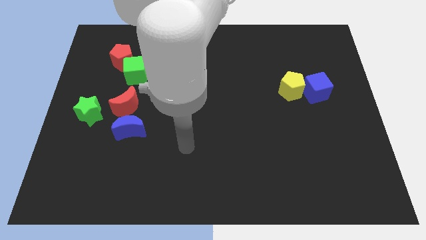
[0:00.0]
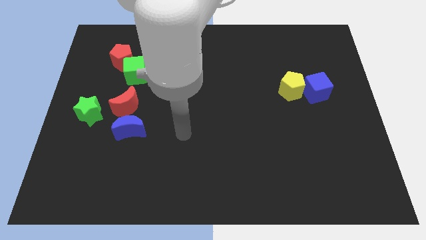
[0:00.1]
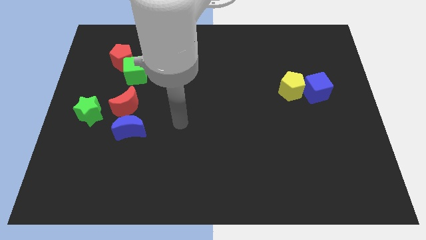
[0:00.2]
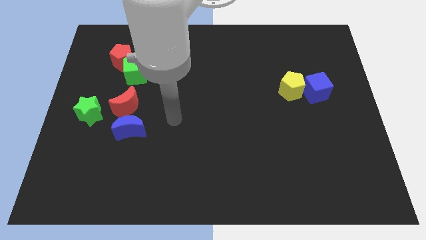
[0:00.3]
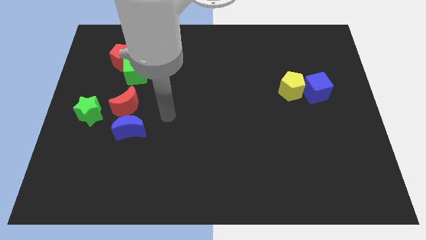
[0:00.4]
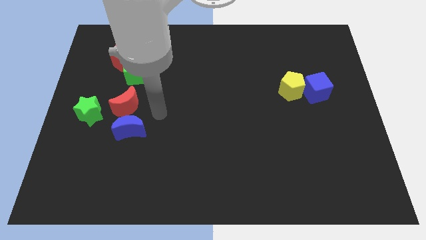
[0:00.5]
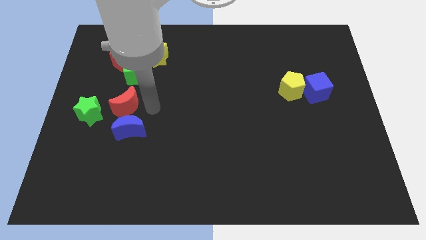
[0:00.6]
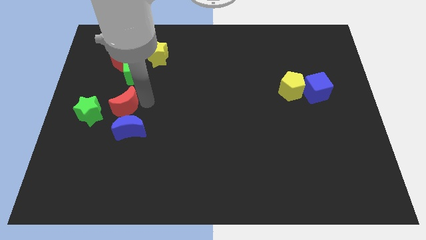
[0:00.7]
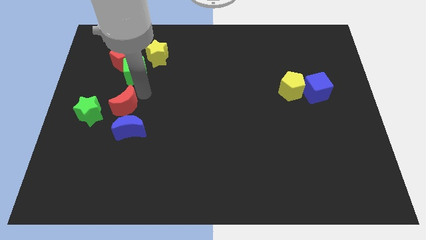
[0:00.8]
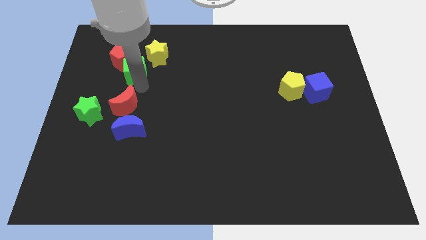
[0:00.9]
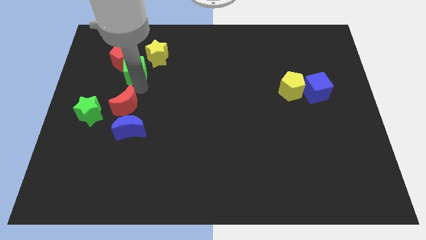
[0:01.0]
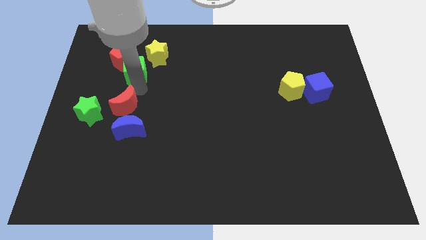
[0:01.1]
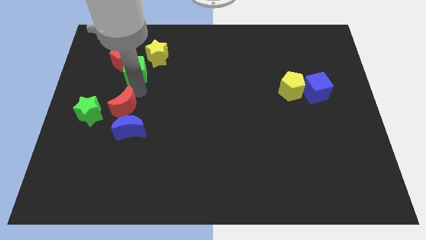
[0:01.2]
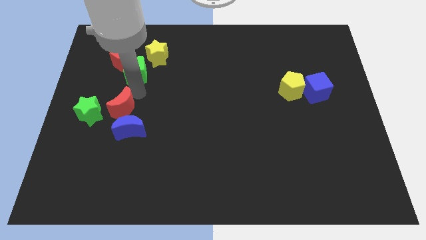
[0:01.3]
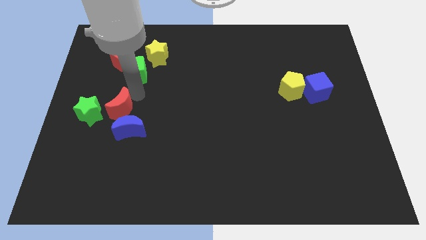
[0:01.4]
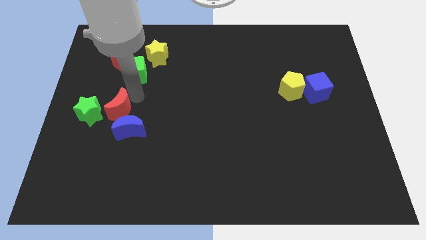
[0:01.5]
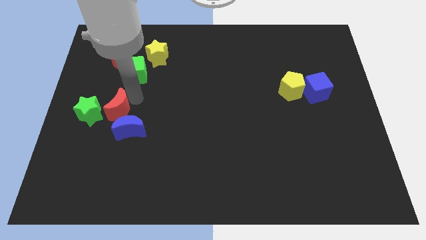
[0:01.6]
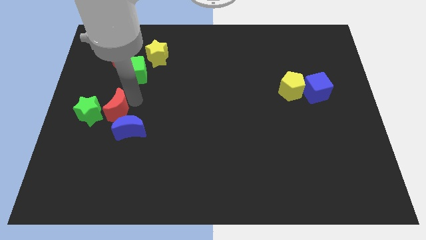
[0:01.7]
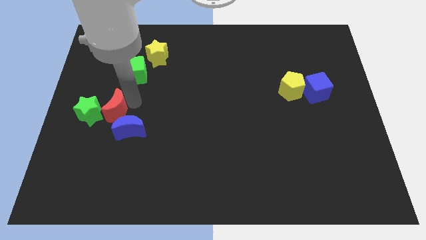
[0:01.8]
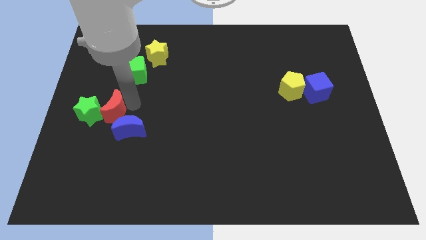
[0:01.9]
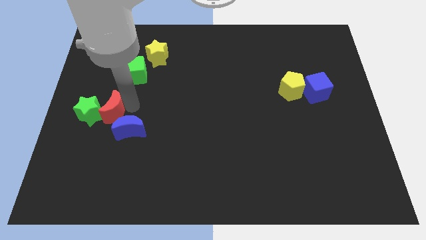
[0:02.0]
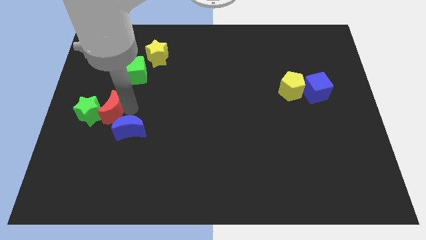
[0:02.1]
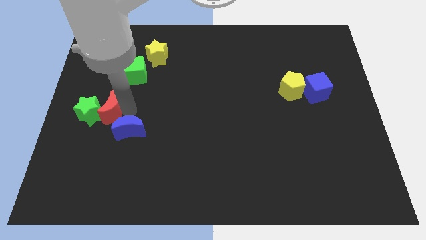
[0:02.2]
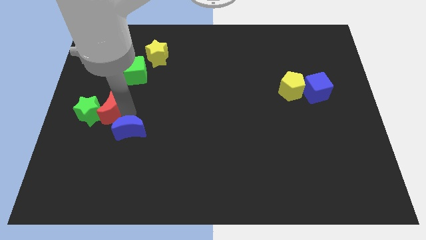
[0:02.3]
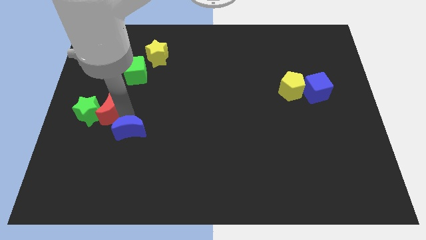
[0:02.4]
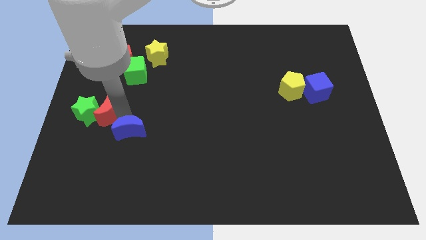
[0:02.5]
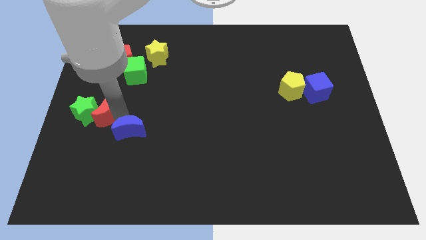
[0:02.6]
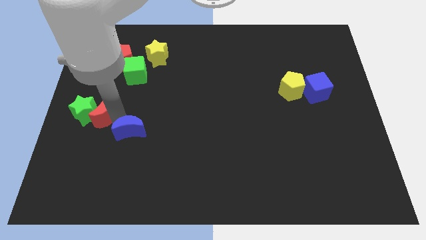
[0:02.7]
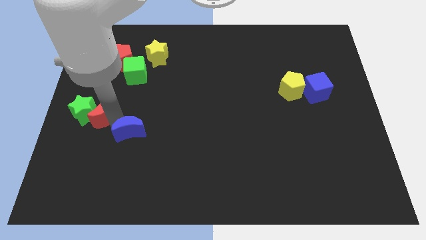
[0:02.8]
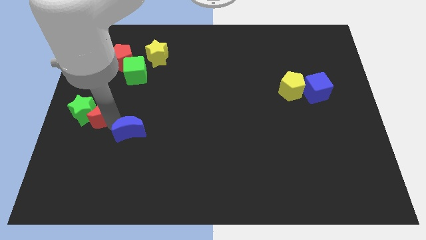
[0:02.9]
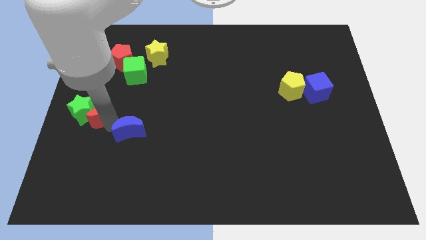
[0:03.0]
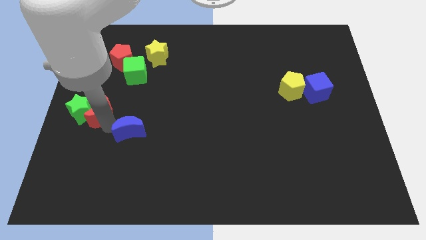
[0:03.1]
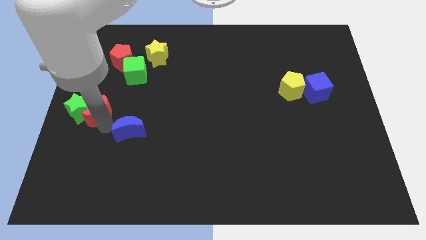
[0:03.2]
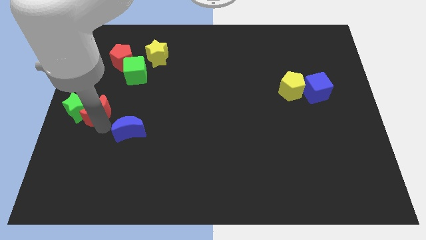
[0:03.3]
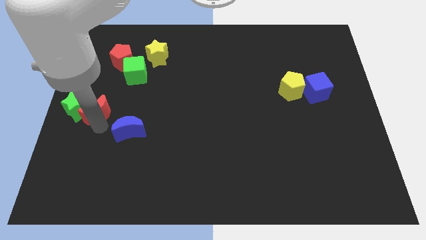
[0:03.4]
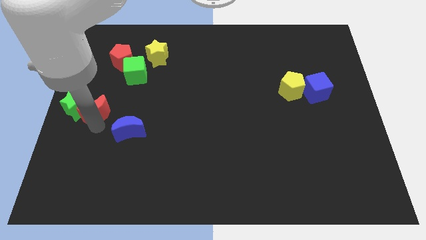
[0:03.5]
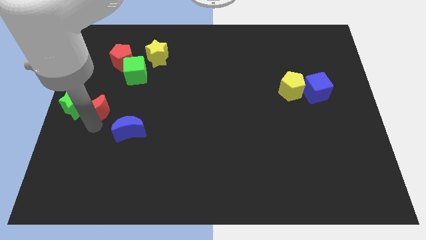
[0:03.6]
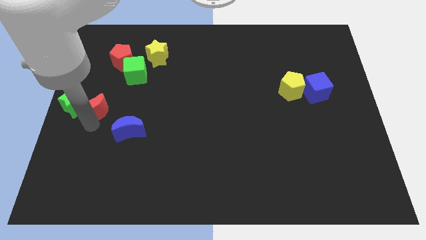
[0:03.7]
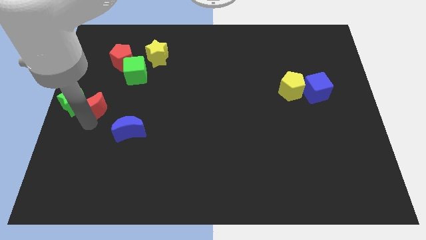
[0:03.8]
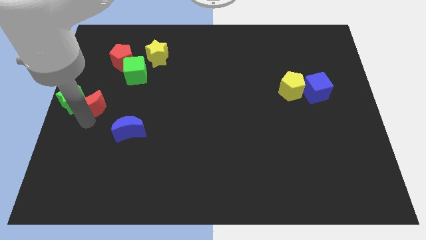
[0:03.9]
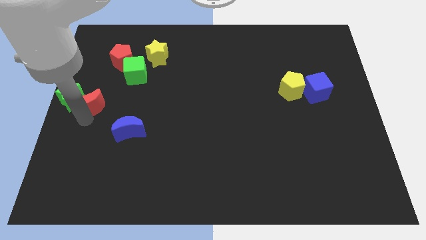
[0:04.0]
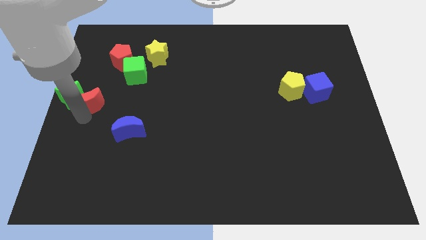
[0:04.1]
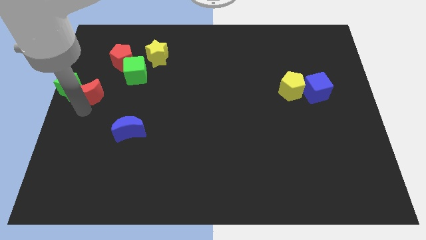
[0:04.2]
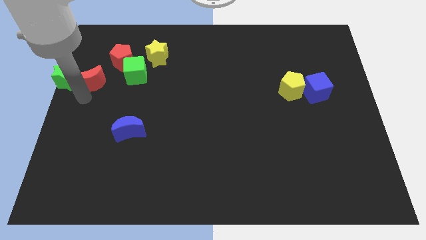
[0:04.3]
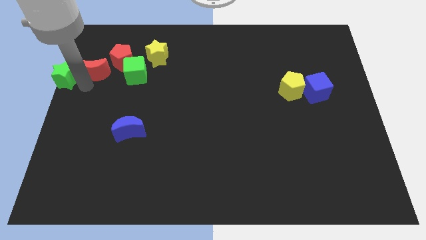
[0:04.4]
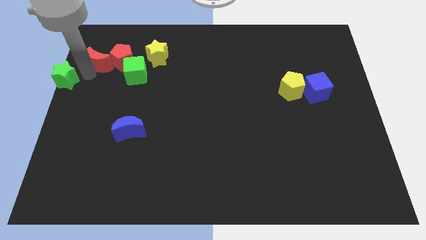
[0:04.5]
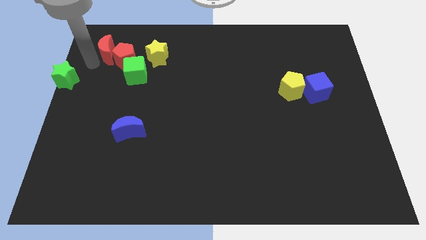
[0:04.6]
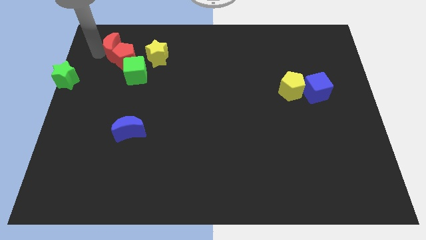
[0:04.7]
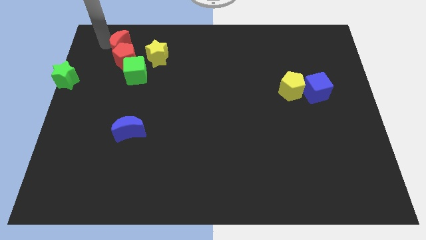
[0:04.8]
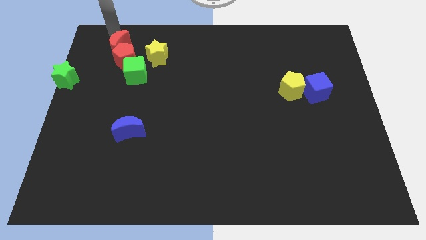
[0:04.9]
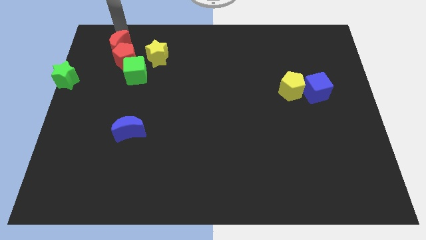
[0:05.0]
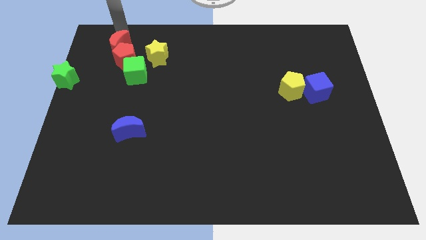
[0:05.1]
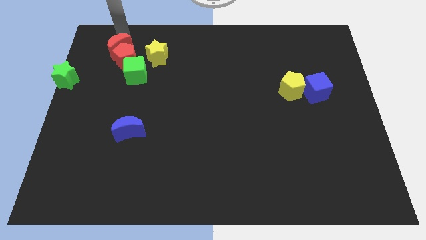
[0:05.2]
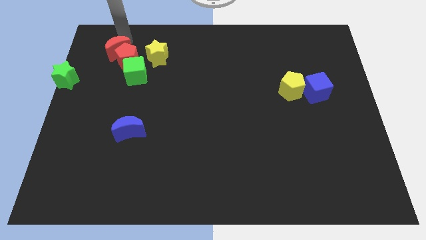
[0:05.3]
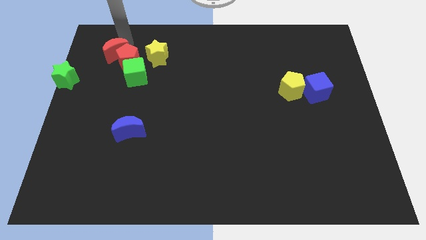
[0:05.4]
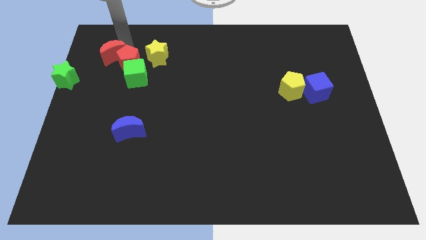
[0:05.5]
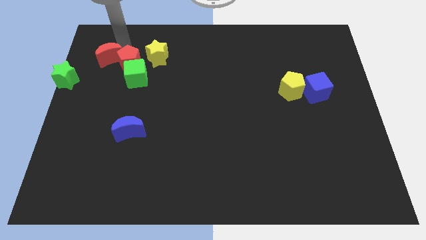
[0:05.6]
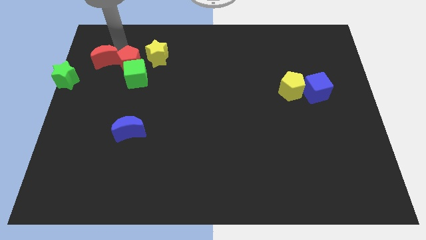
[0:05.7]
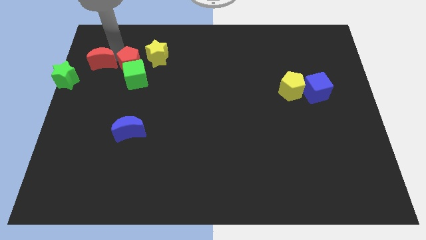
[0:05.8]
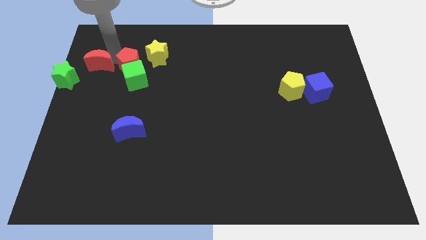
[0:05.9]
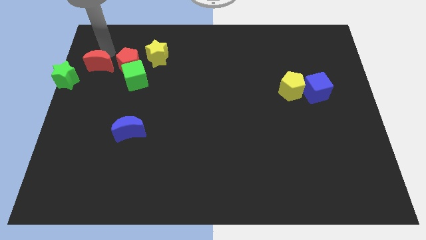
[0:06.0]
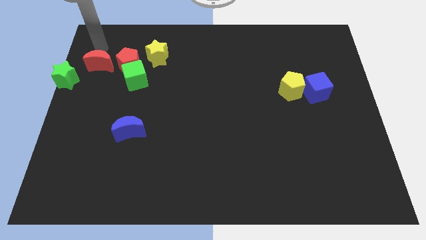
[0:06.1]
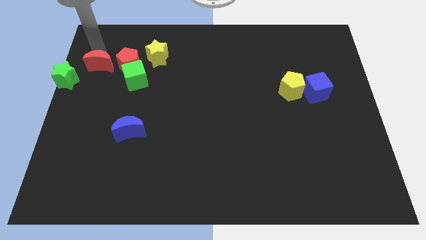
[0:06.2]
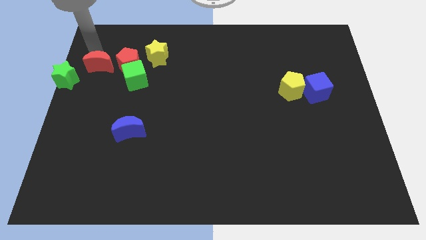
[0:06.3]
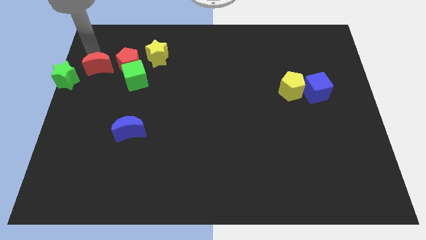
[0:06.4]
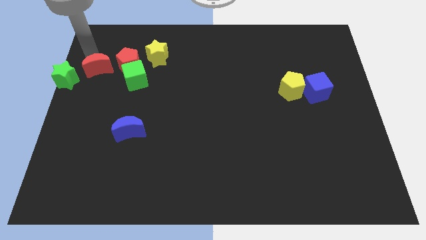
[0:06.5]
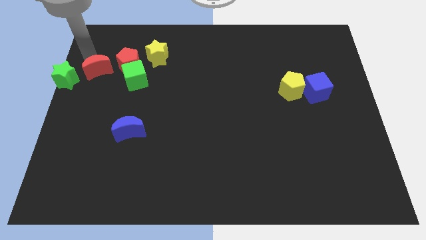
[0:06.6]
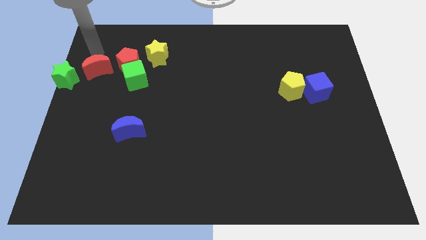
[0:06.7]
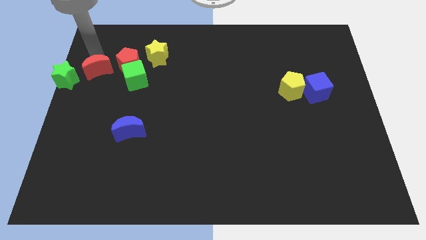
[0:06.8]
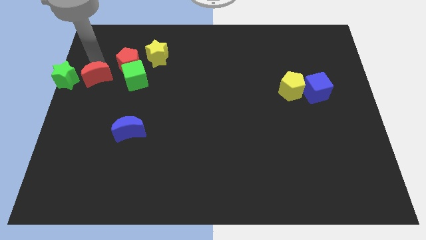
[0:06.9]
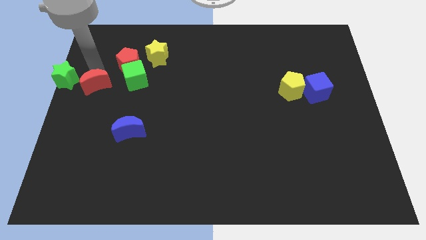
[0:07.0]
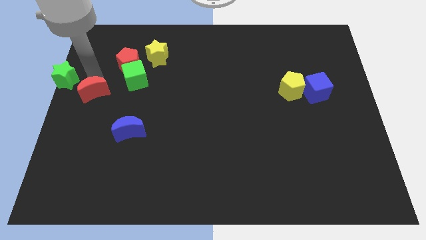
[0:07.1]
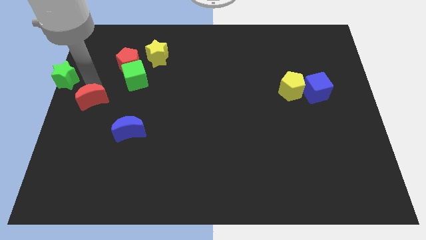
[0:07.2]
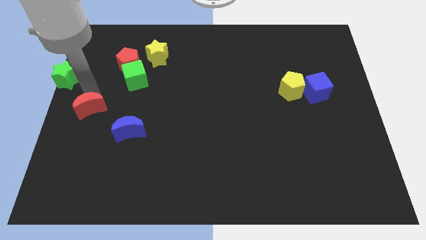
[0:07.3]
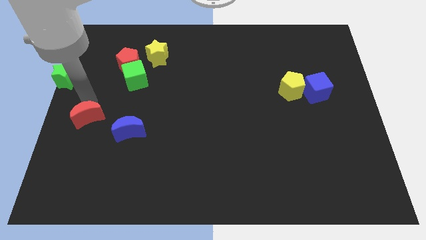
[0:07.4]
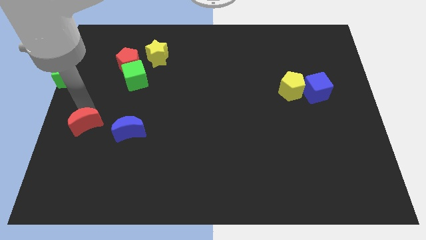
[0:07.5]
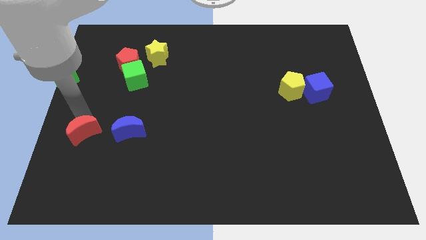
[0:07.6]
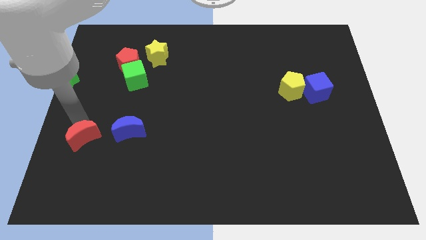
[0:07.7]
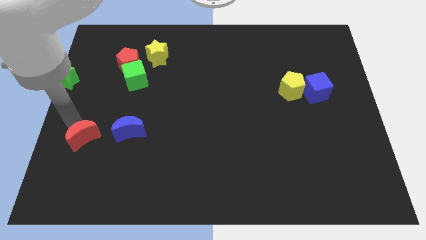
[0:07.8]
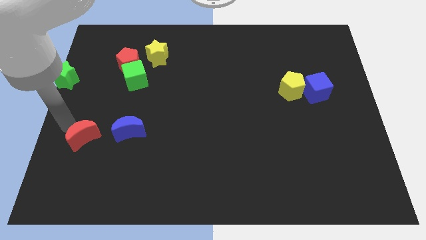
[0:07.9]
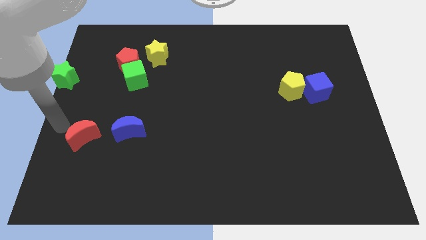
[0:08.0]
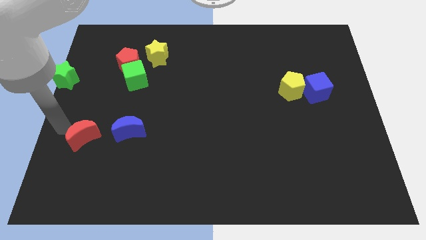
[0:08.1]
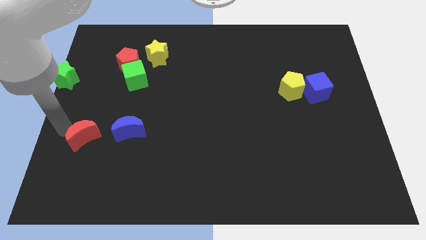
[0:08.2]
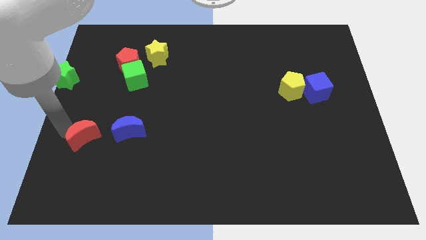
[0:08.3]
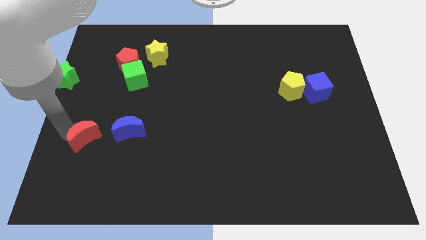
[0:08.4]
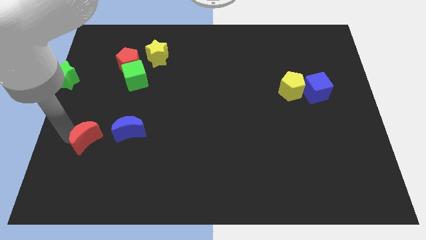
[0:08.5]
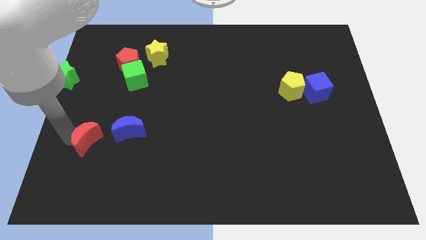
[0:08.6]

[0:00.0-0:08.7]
move the red moon a little bit down
